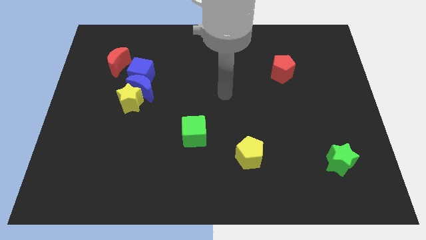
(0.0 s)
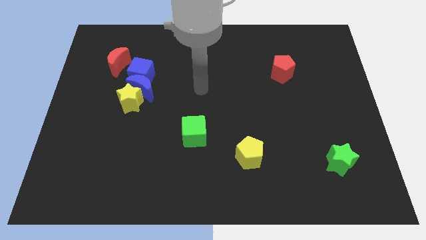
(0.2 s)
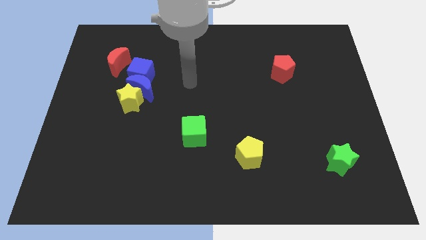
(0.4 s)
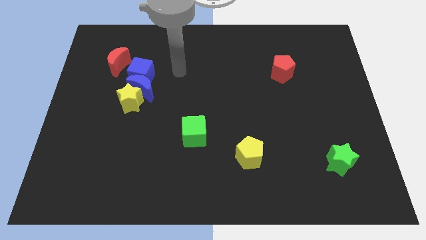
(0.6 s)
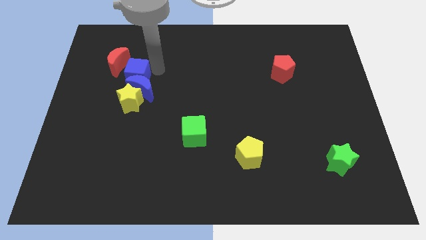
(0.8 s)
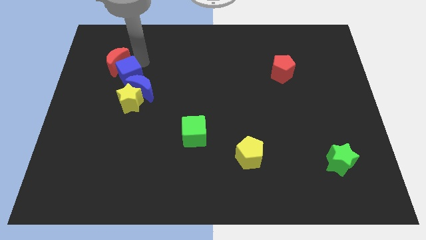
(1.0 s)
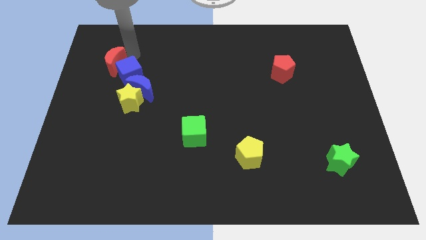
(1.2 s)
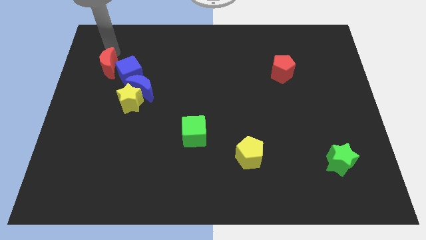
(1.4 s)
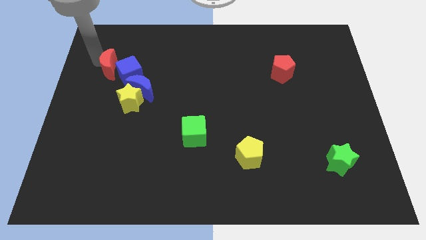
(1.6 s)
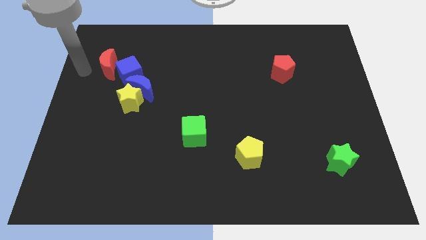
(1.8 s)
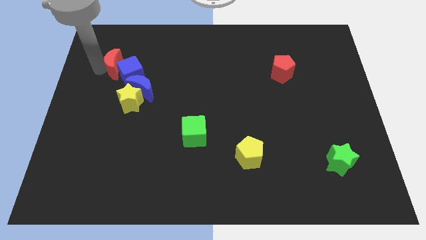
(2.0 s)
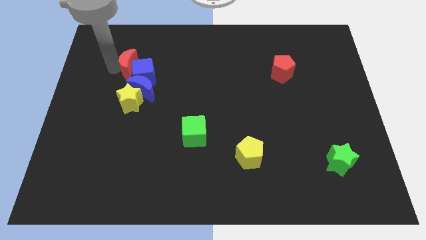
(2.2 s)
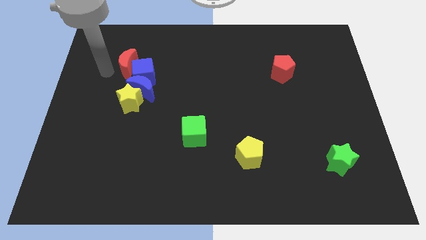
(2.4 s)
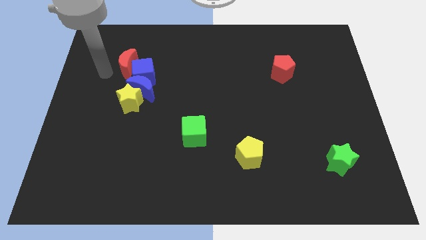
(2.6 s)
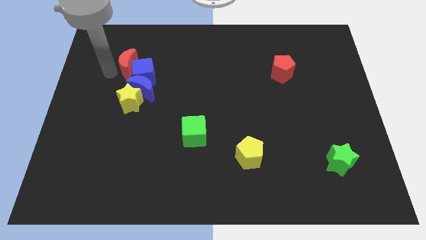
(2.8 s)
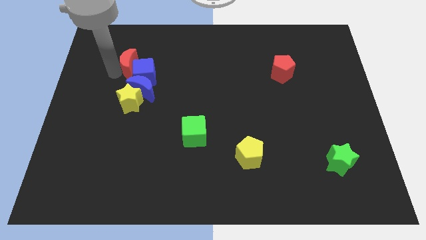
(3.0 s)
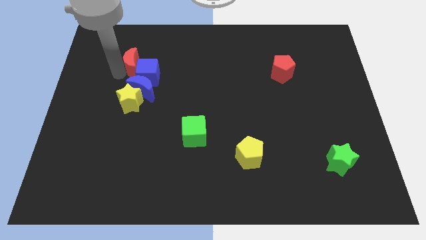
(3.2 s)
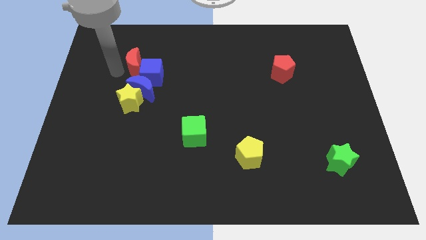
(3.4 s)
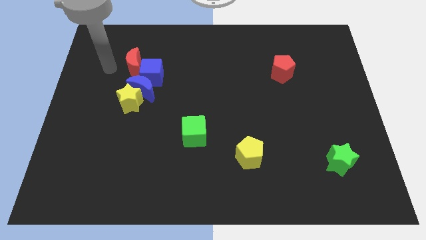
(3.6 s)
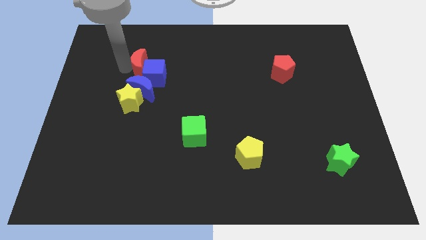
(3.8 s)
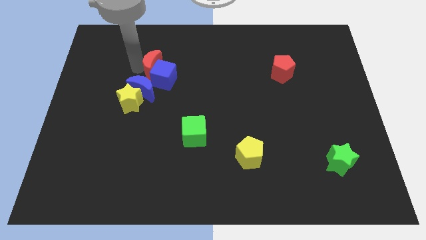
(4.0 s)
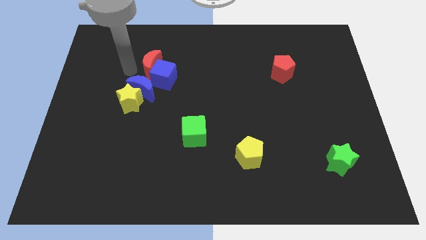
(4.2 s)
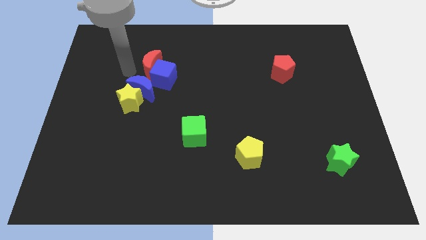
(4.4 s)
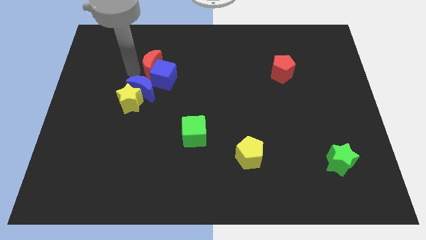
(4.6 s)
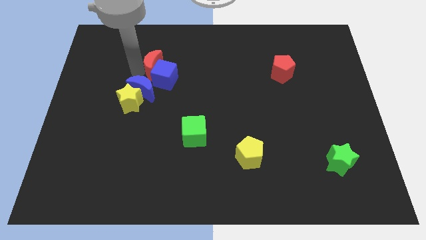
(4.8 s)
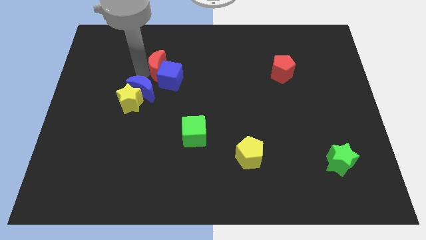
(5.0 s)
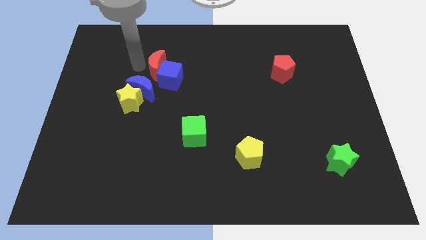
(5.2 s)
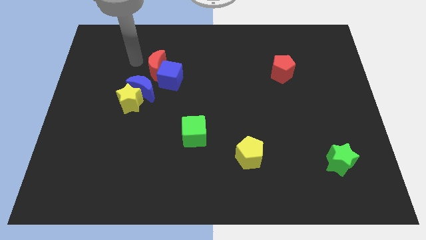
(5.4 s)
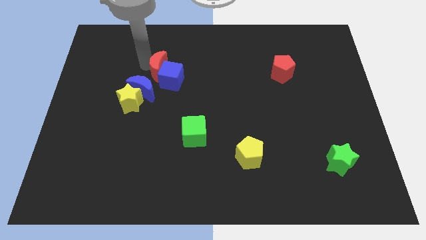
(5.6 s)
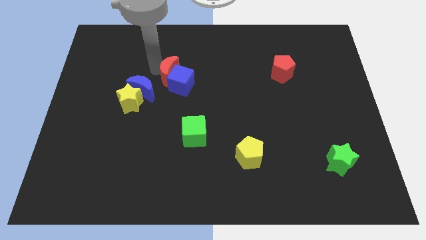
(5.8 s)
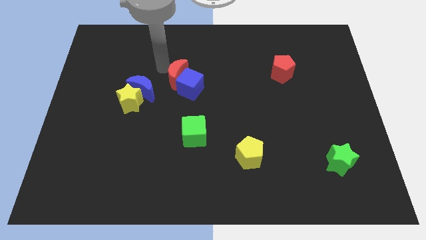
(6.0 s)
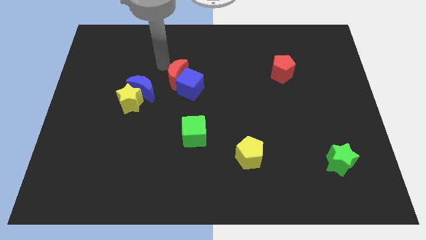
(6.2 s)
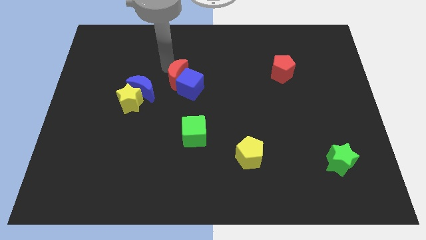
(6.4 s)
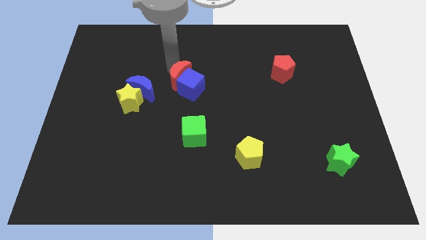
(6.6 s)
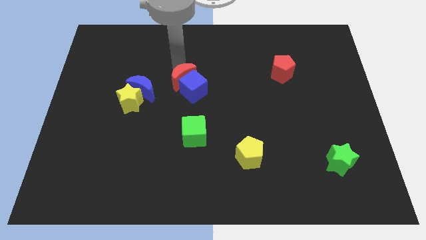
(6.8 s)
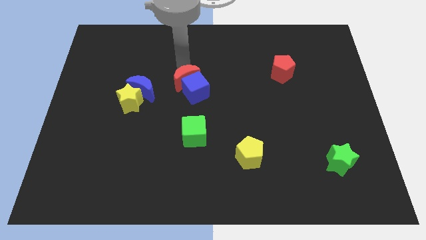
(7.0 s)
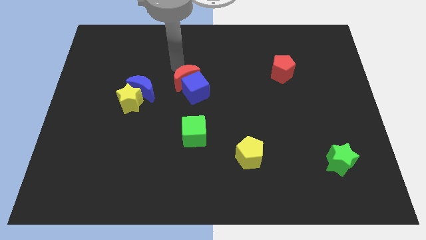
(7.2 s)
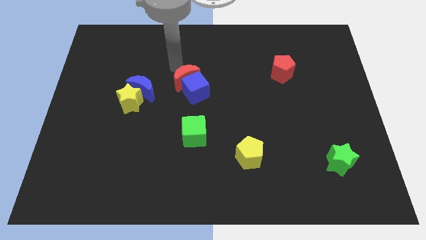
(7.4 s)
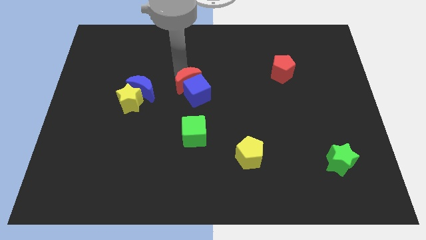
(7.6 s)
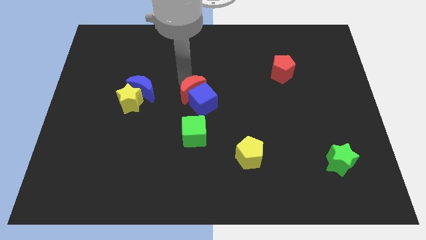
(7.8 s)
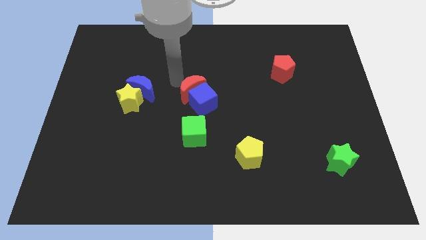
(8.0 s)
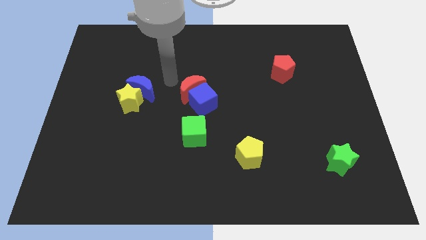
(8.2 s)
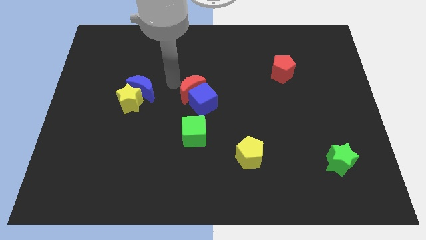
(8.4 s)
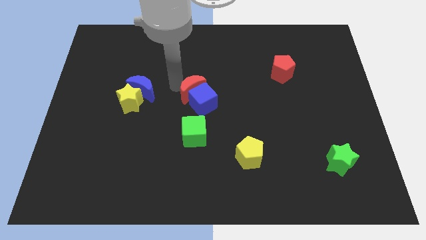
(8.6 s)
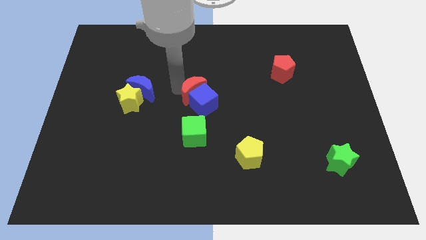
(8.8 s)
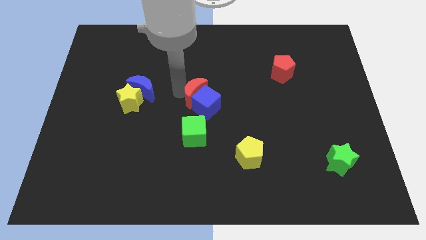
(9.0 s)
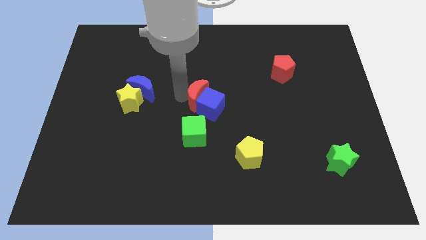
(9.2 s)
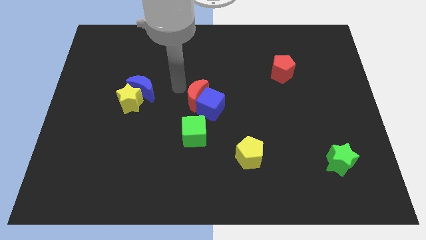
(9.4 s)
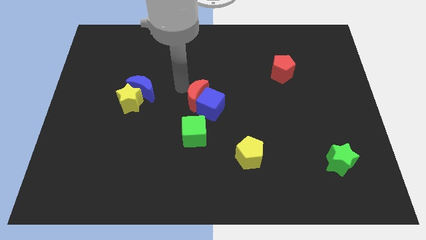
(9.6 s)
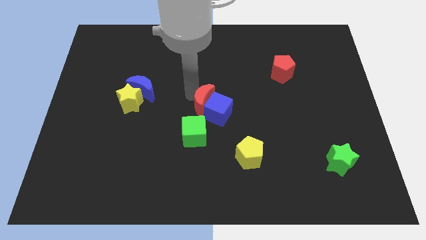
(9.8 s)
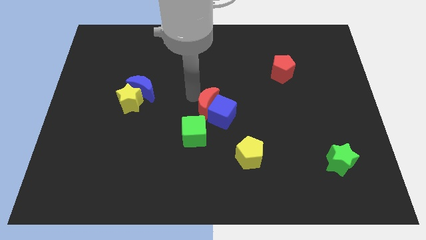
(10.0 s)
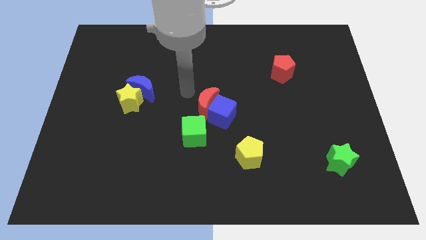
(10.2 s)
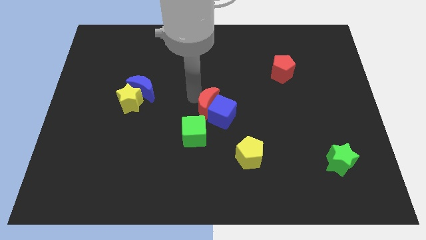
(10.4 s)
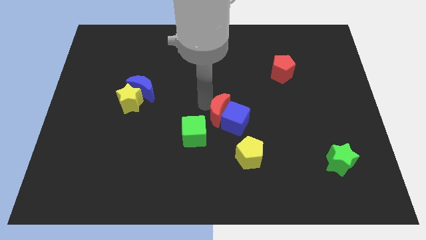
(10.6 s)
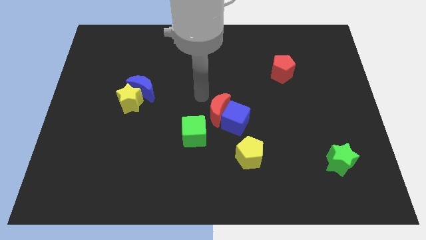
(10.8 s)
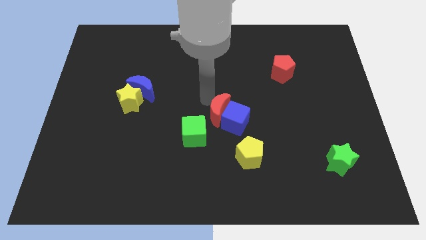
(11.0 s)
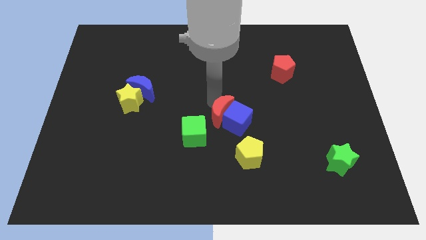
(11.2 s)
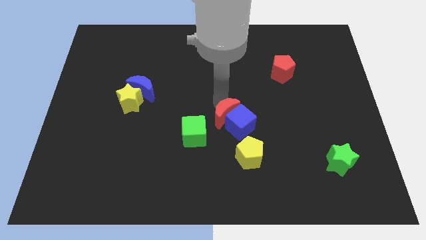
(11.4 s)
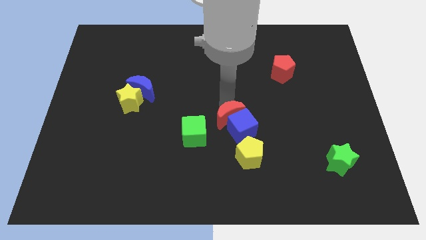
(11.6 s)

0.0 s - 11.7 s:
move the red moon right of the green cube

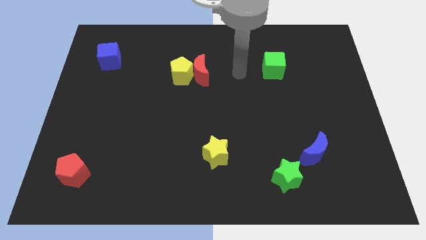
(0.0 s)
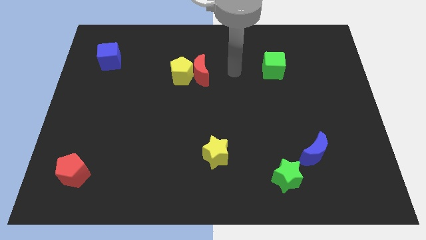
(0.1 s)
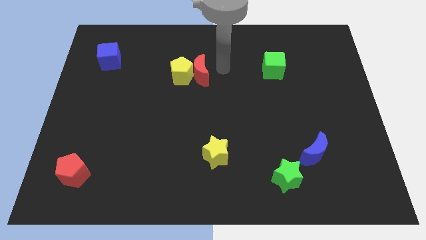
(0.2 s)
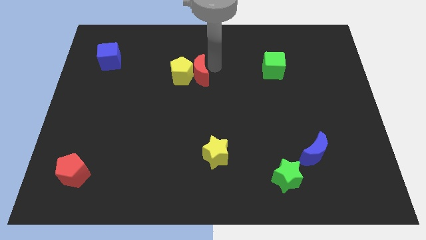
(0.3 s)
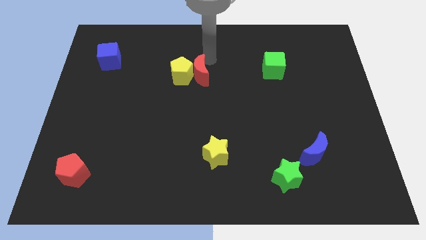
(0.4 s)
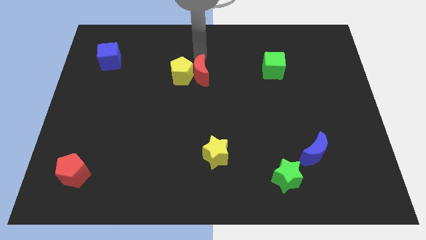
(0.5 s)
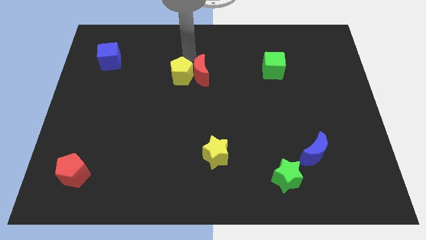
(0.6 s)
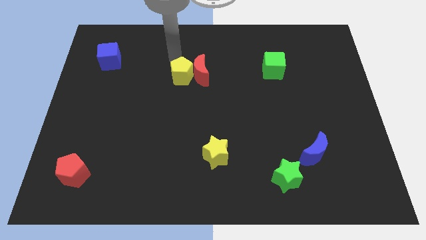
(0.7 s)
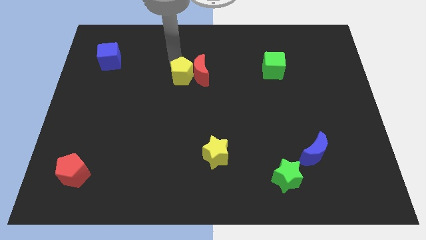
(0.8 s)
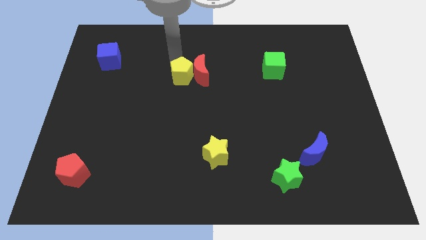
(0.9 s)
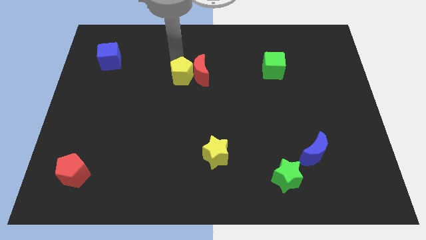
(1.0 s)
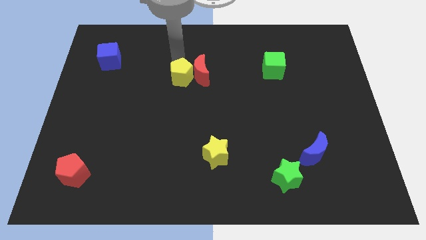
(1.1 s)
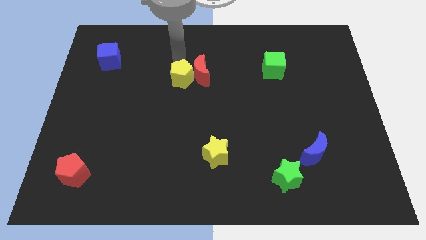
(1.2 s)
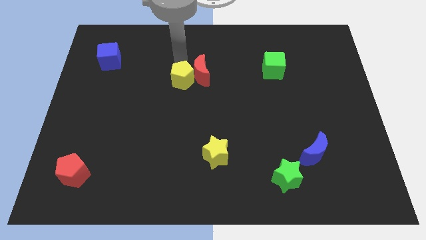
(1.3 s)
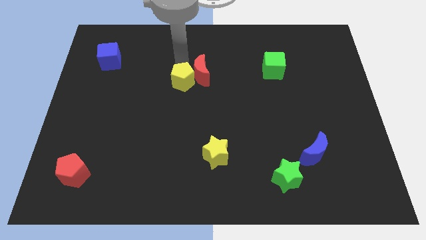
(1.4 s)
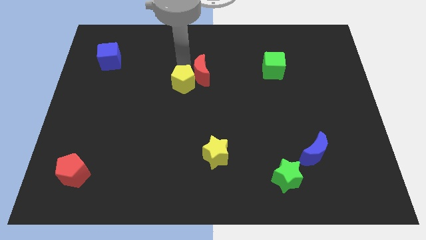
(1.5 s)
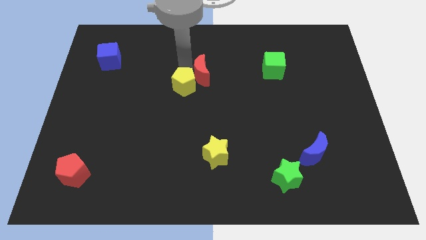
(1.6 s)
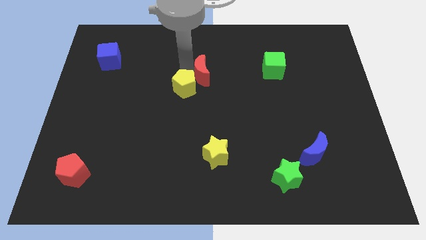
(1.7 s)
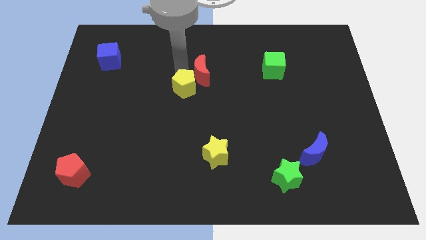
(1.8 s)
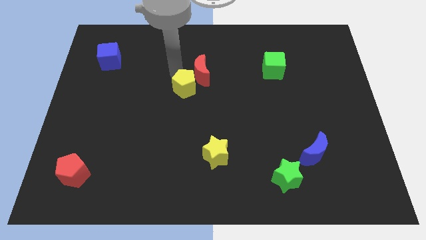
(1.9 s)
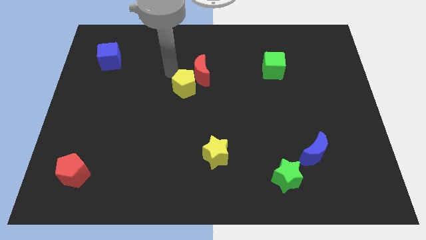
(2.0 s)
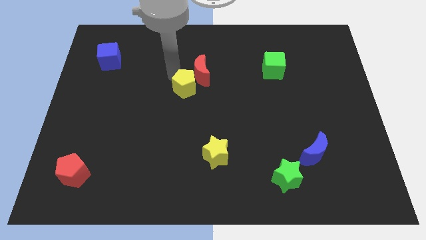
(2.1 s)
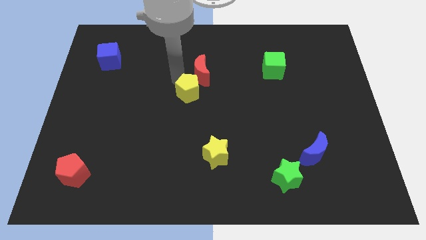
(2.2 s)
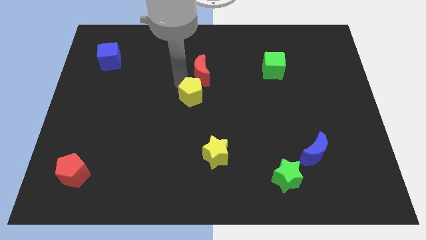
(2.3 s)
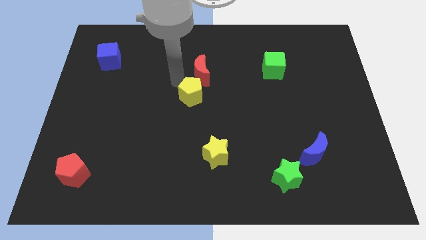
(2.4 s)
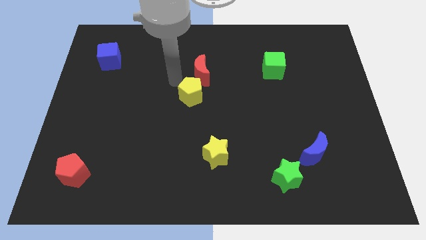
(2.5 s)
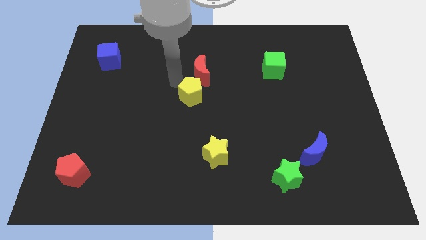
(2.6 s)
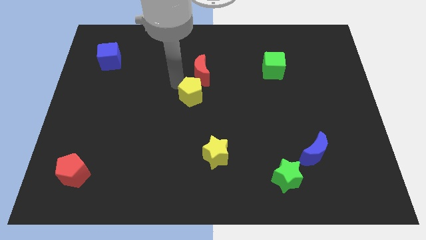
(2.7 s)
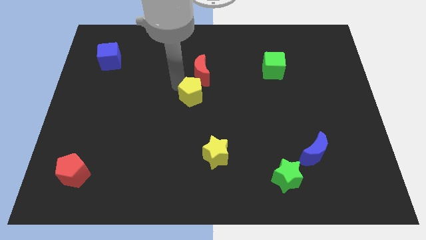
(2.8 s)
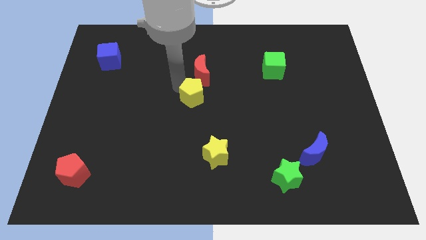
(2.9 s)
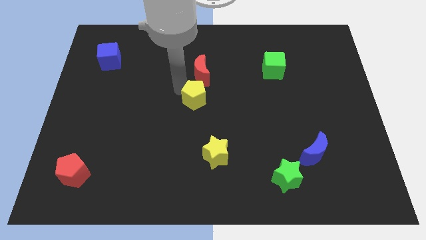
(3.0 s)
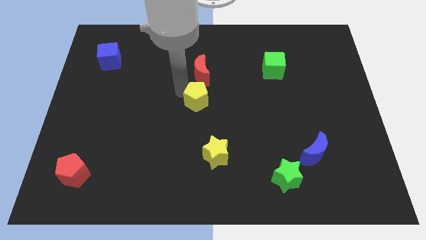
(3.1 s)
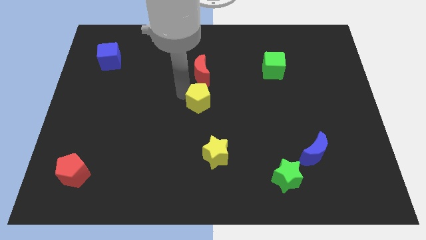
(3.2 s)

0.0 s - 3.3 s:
slide the yellow pentagon to the top side of the yellow star
